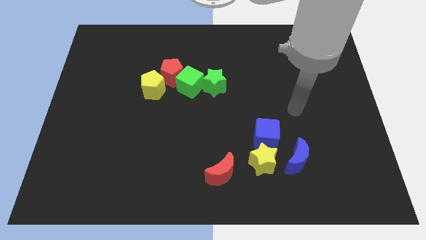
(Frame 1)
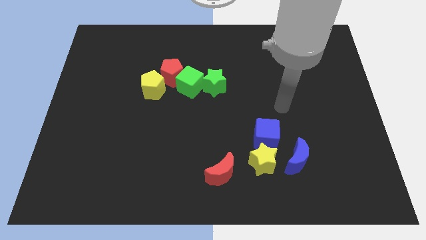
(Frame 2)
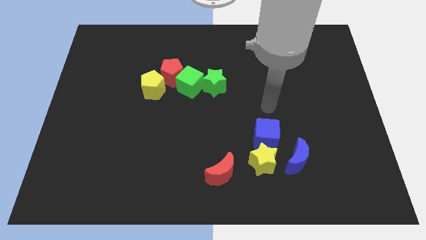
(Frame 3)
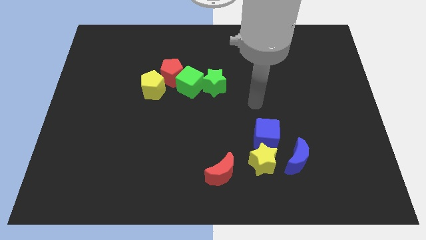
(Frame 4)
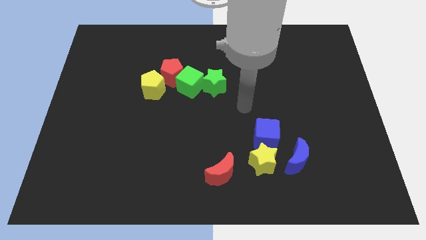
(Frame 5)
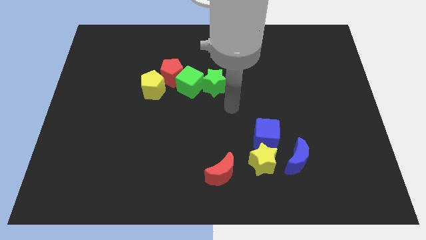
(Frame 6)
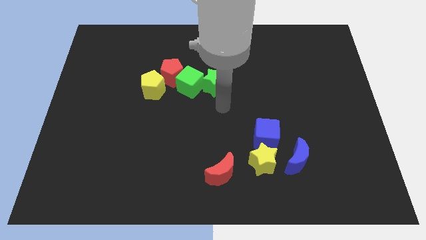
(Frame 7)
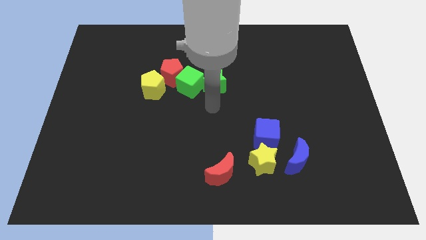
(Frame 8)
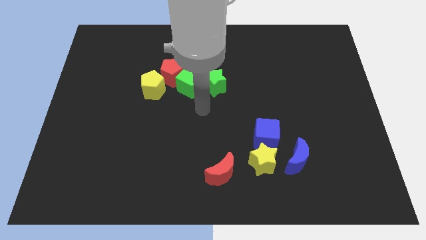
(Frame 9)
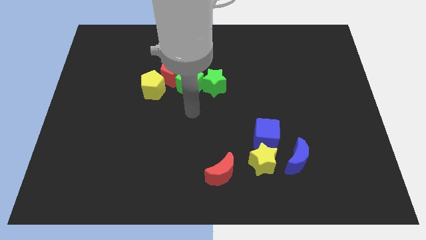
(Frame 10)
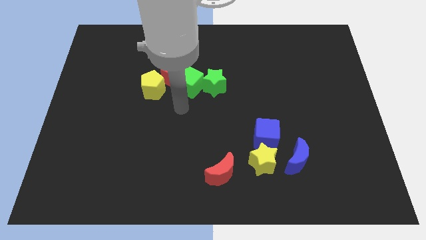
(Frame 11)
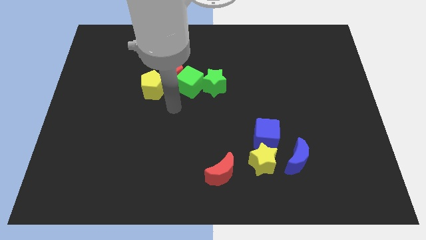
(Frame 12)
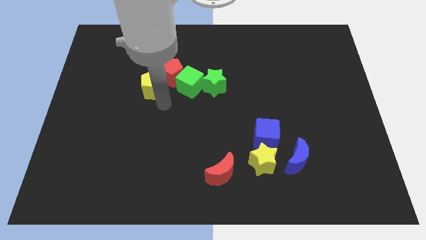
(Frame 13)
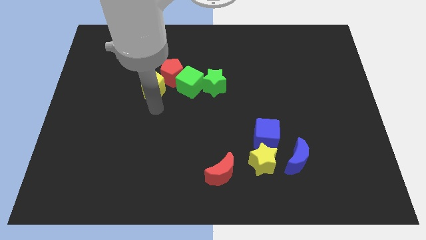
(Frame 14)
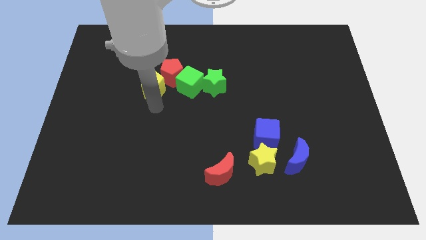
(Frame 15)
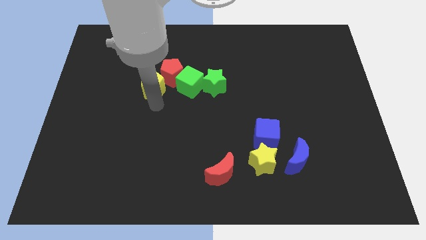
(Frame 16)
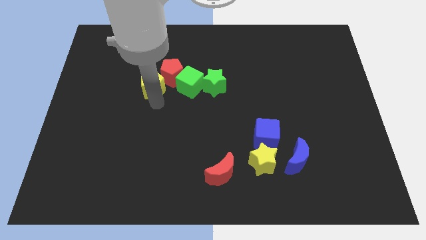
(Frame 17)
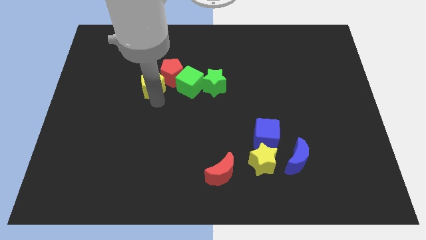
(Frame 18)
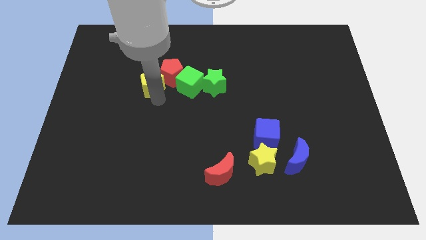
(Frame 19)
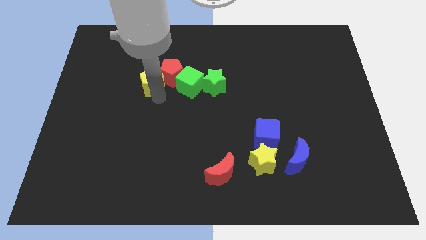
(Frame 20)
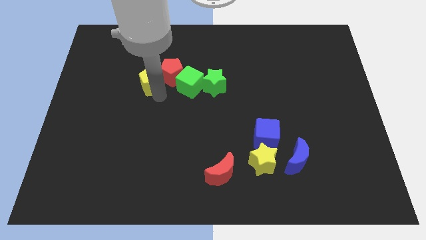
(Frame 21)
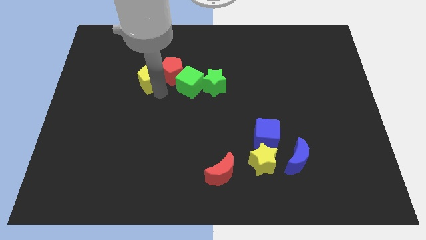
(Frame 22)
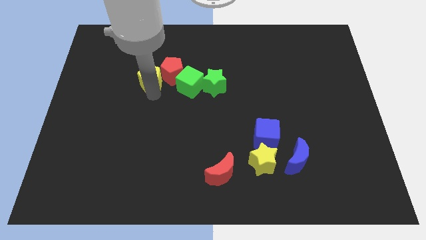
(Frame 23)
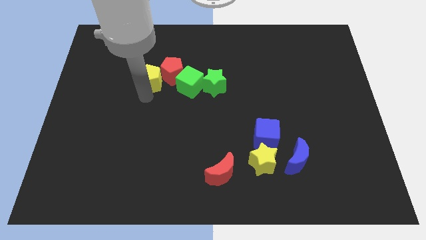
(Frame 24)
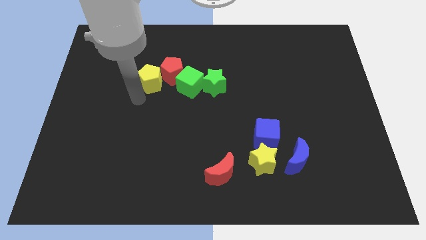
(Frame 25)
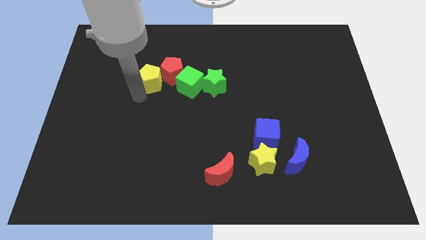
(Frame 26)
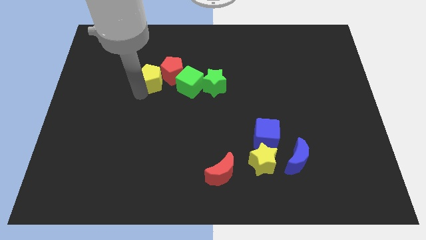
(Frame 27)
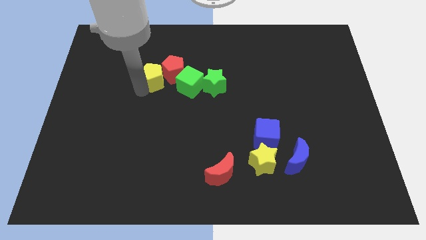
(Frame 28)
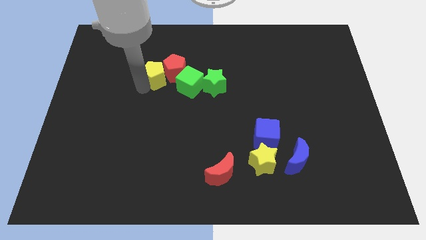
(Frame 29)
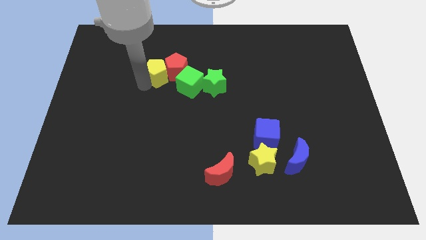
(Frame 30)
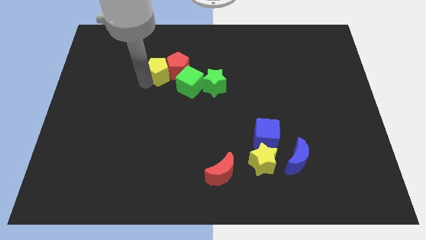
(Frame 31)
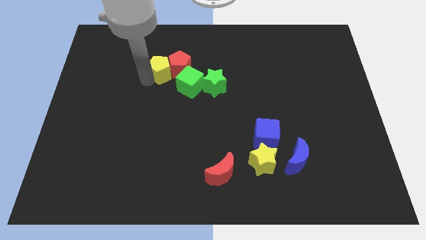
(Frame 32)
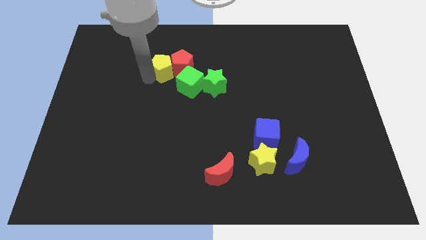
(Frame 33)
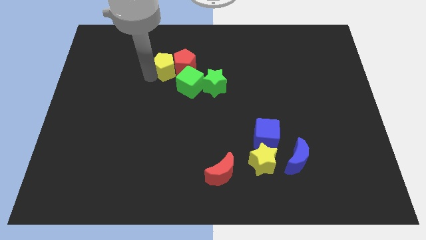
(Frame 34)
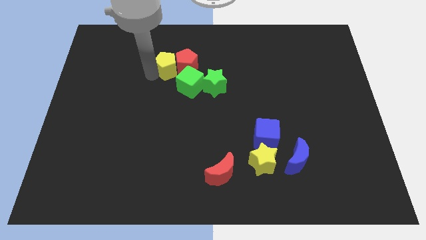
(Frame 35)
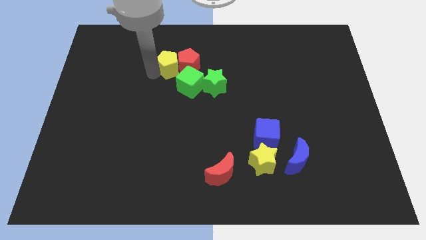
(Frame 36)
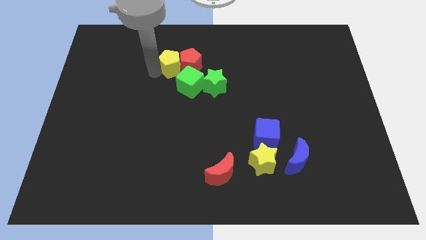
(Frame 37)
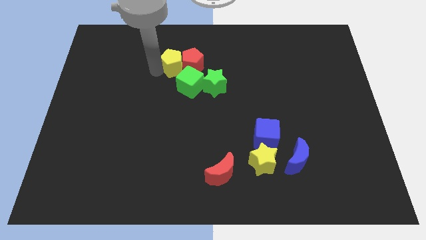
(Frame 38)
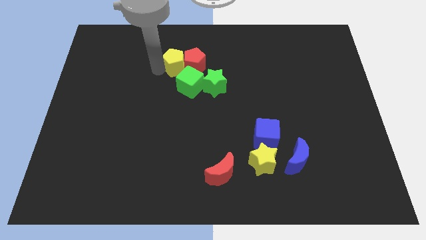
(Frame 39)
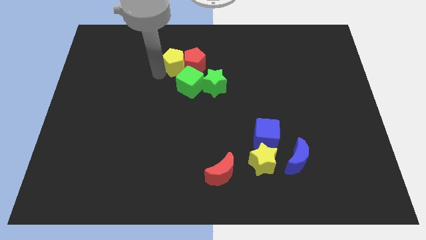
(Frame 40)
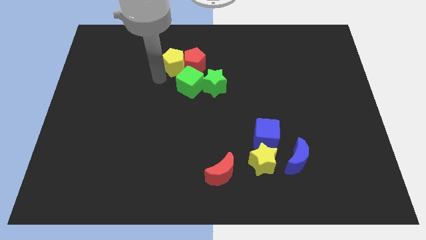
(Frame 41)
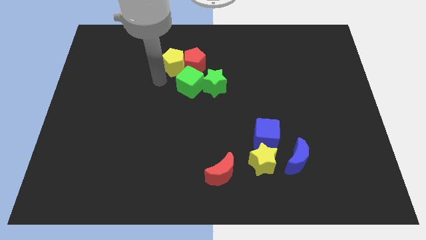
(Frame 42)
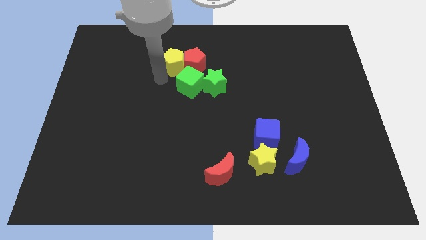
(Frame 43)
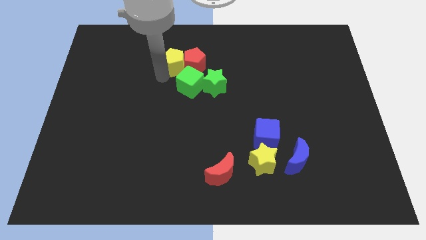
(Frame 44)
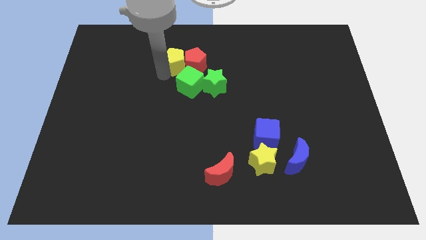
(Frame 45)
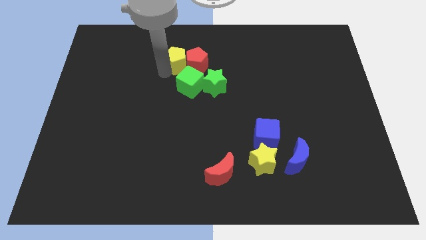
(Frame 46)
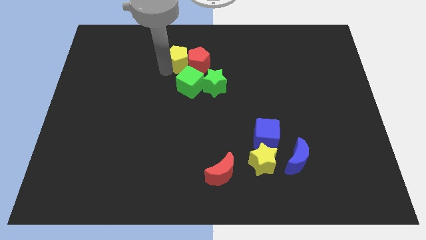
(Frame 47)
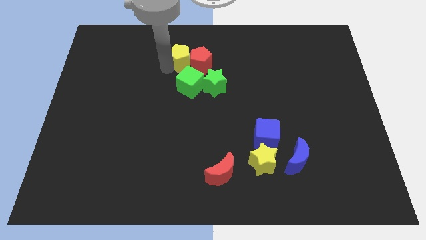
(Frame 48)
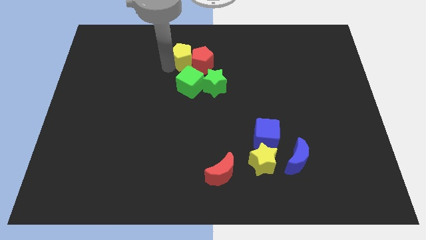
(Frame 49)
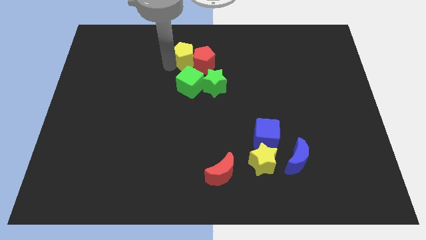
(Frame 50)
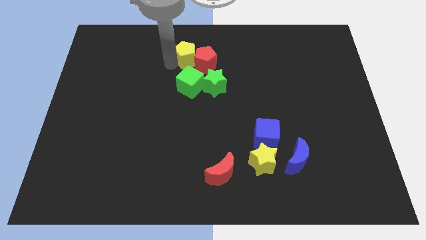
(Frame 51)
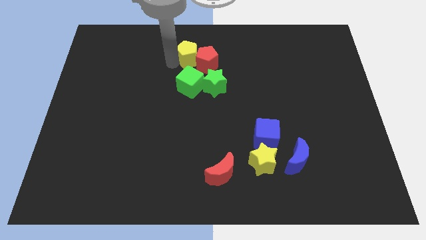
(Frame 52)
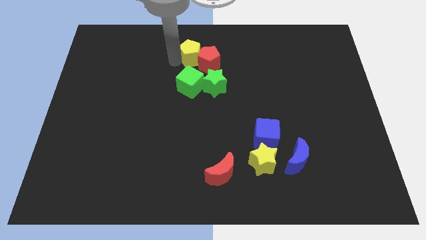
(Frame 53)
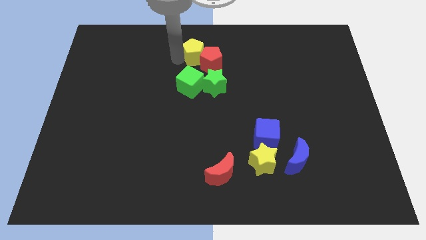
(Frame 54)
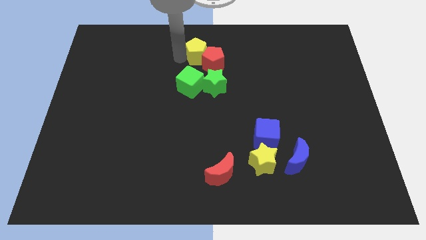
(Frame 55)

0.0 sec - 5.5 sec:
push the yellow pentagon to the top
